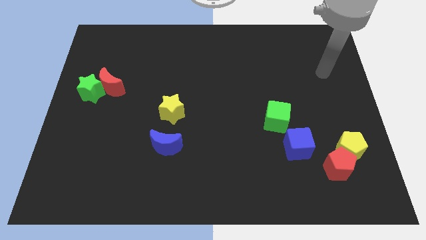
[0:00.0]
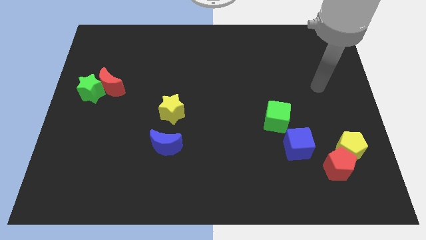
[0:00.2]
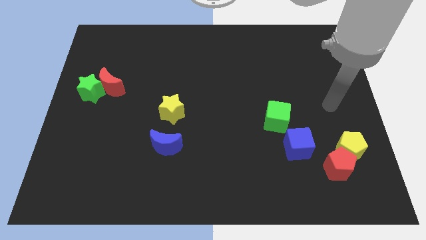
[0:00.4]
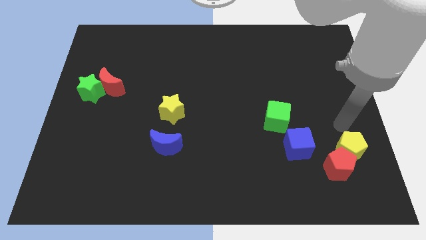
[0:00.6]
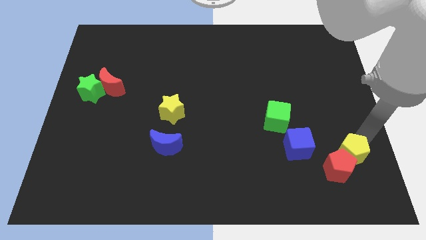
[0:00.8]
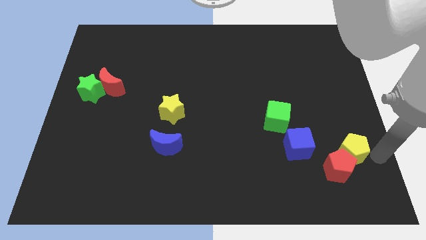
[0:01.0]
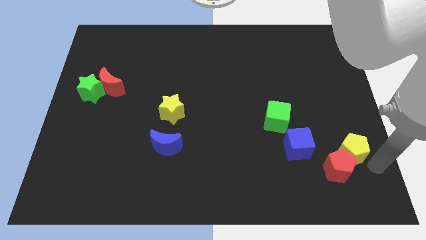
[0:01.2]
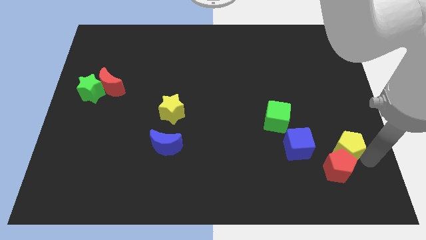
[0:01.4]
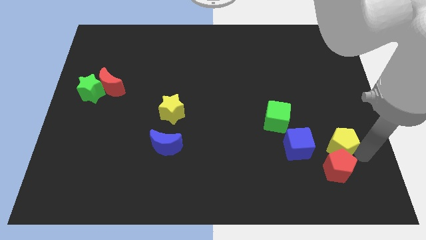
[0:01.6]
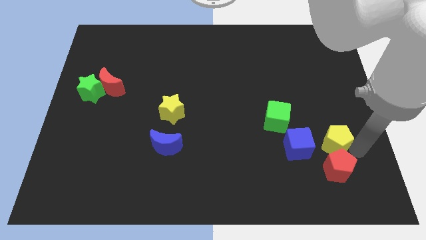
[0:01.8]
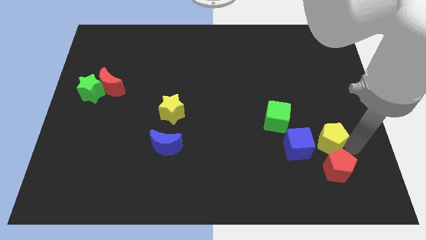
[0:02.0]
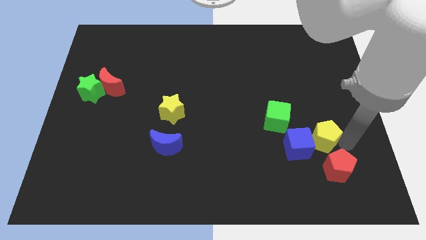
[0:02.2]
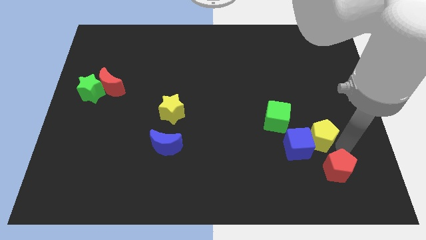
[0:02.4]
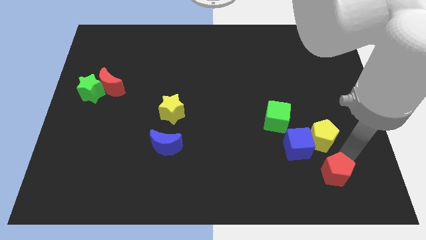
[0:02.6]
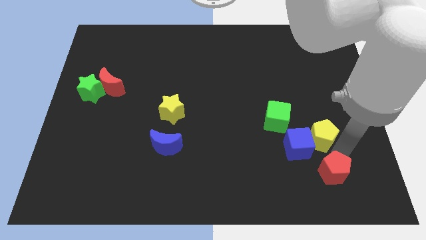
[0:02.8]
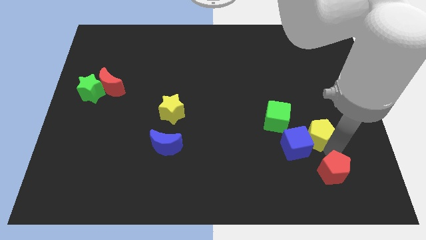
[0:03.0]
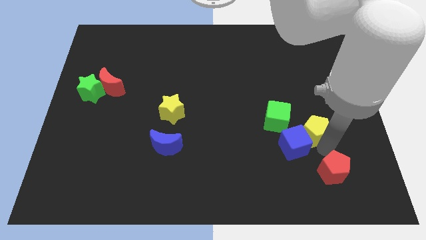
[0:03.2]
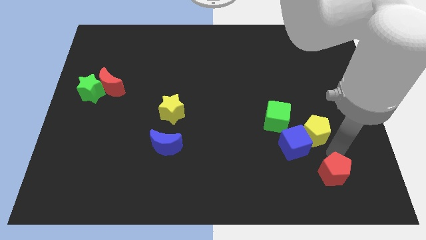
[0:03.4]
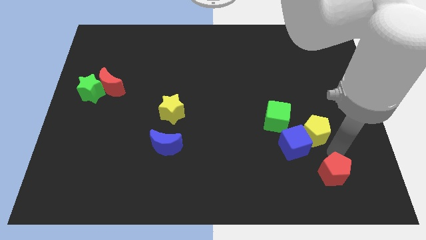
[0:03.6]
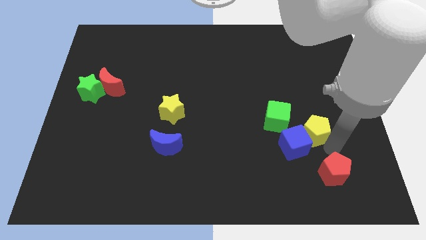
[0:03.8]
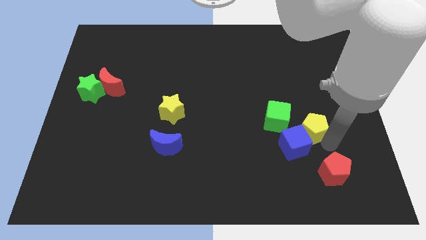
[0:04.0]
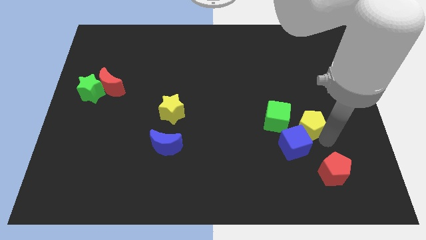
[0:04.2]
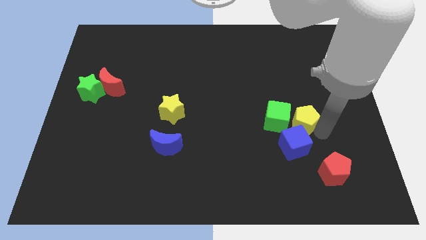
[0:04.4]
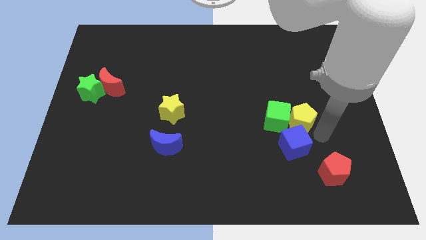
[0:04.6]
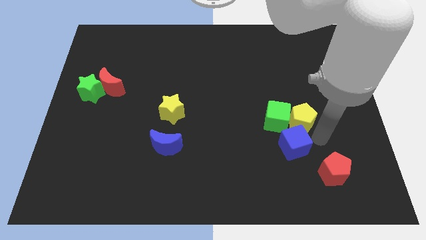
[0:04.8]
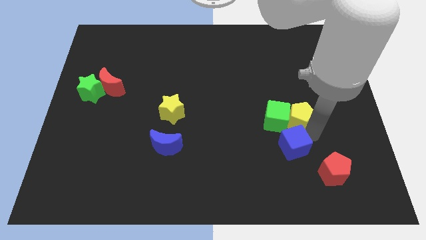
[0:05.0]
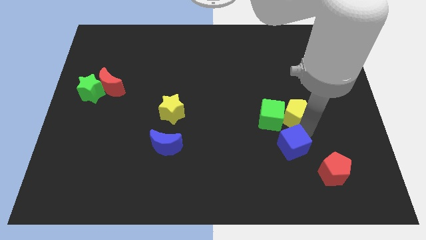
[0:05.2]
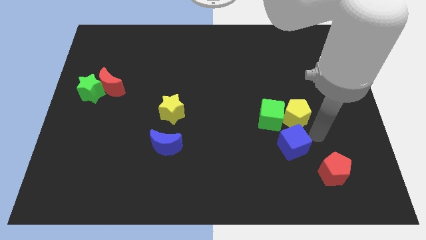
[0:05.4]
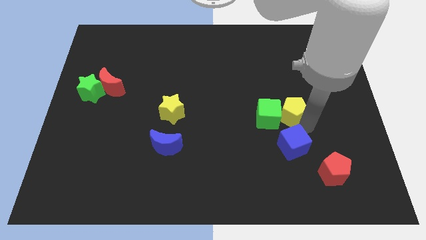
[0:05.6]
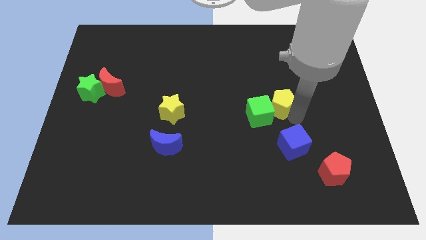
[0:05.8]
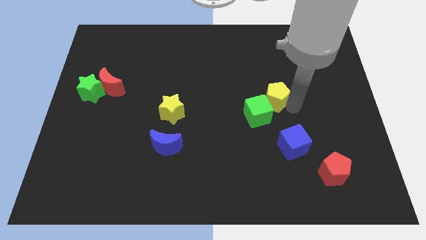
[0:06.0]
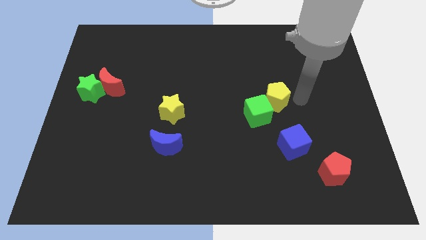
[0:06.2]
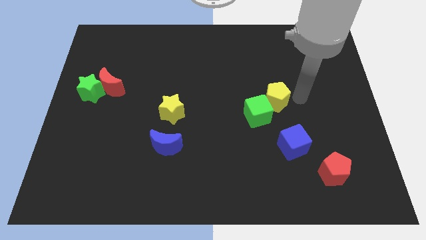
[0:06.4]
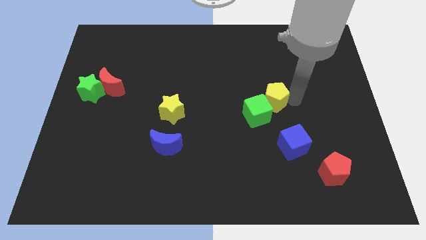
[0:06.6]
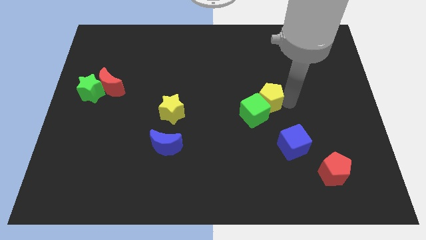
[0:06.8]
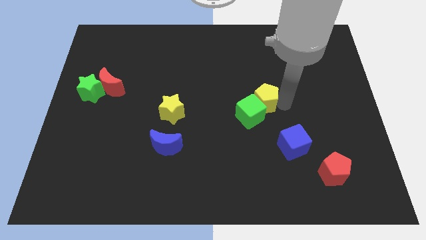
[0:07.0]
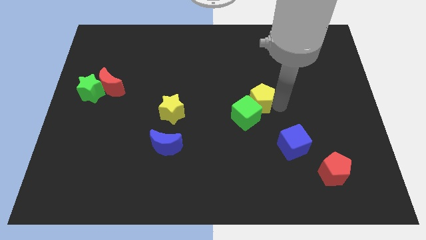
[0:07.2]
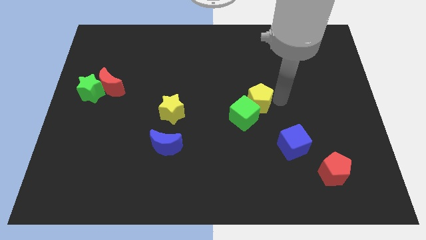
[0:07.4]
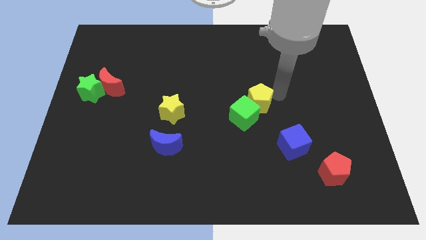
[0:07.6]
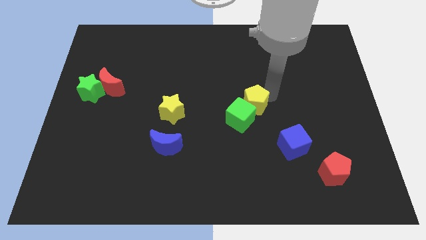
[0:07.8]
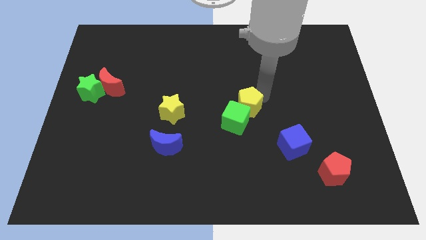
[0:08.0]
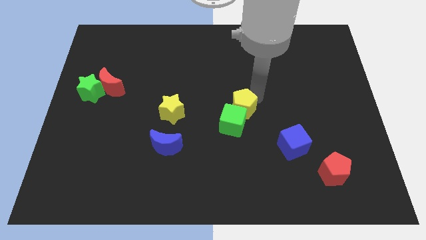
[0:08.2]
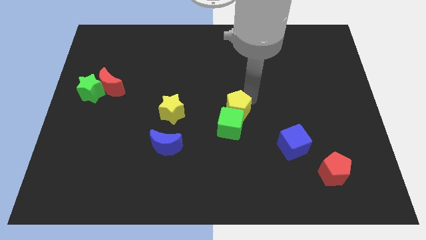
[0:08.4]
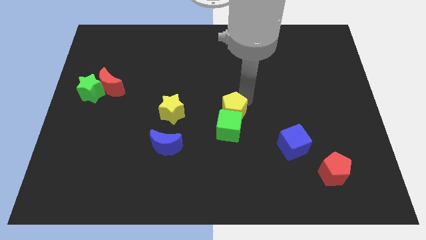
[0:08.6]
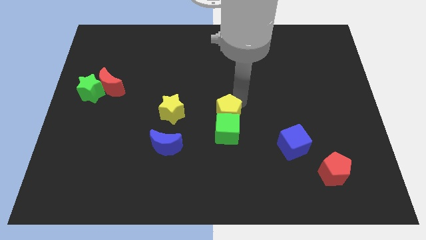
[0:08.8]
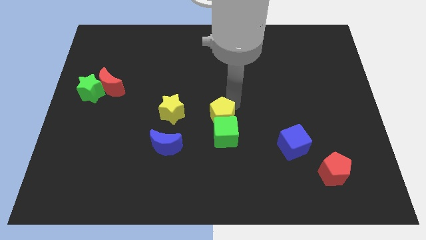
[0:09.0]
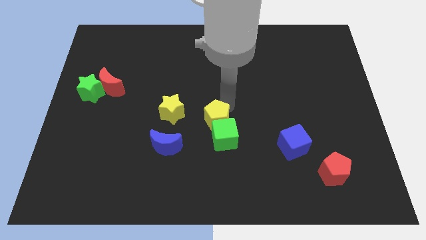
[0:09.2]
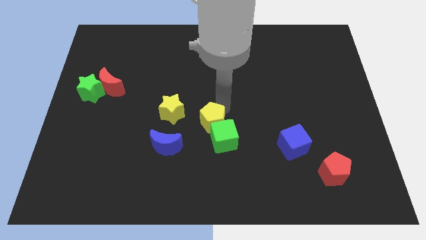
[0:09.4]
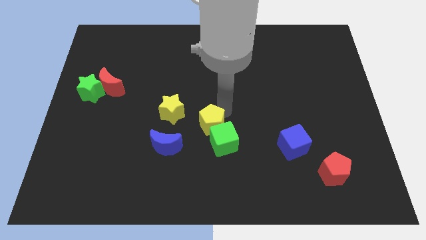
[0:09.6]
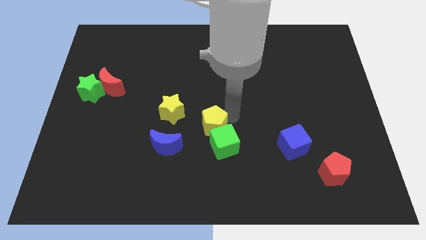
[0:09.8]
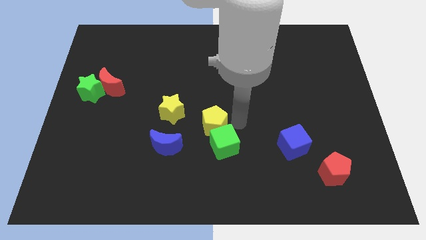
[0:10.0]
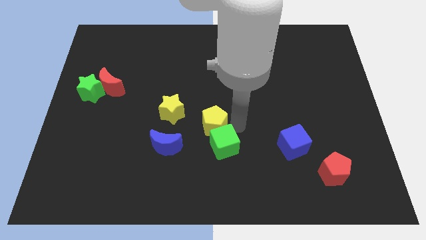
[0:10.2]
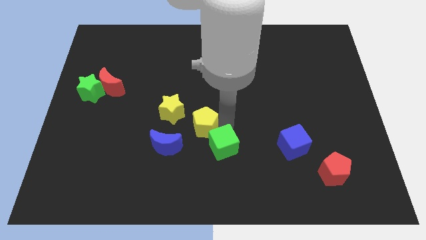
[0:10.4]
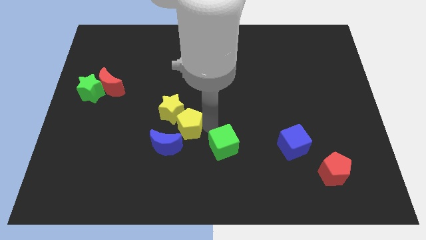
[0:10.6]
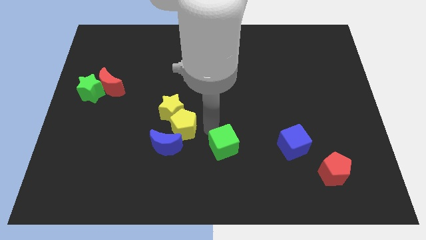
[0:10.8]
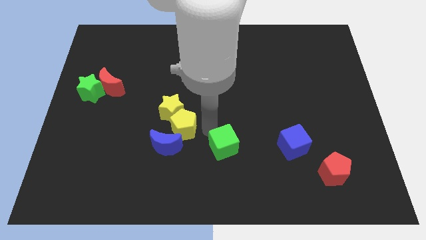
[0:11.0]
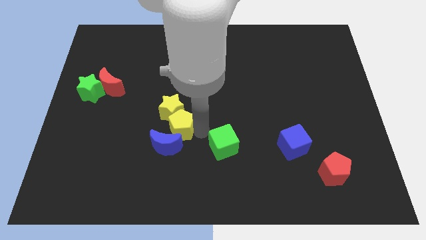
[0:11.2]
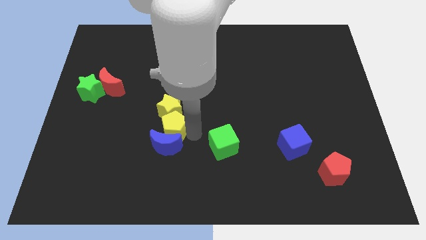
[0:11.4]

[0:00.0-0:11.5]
put the yellow pentagon to the top left of the blue moon
